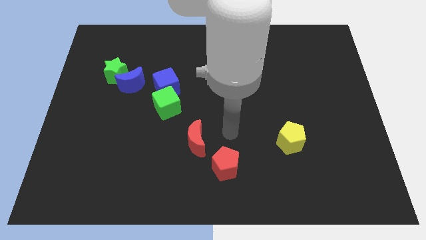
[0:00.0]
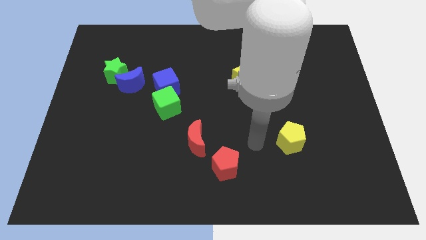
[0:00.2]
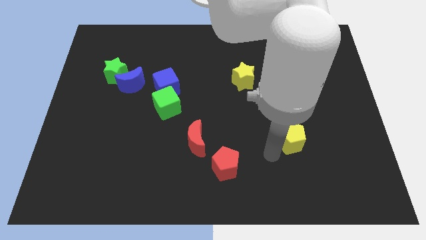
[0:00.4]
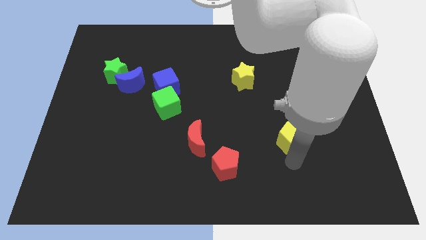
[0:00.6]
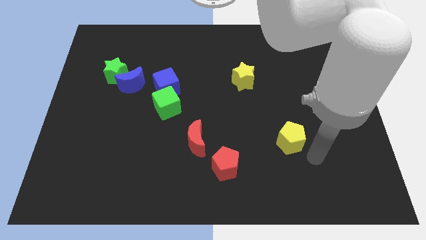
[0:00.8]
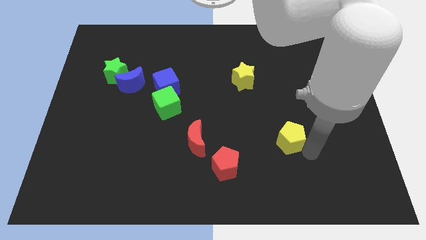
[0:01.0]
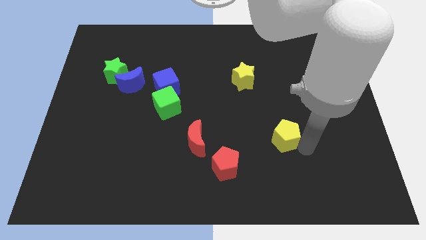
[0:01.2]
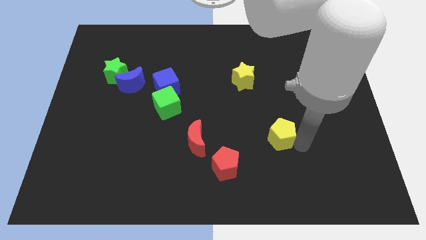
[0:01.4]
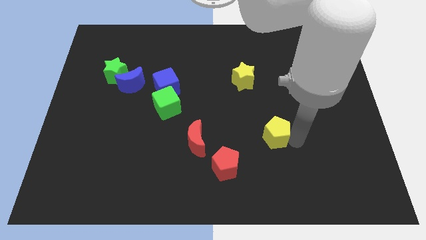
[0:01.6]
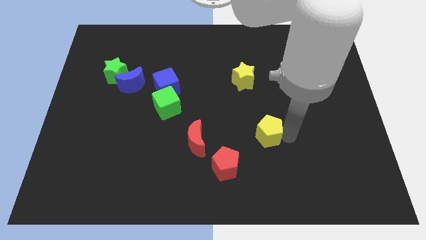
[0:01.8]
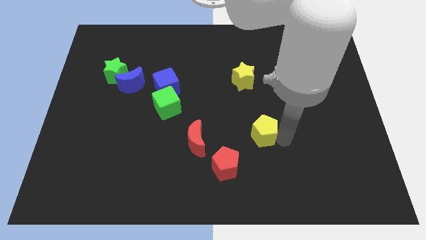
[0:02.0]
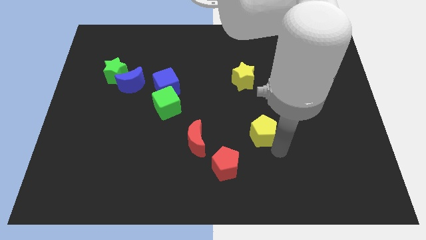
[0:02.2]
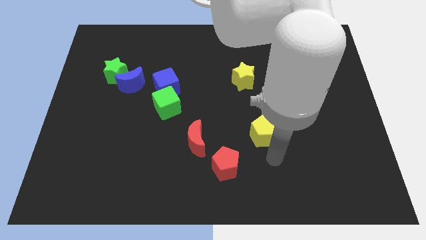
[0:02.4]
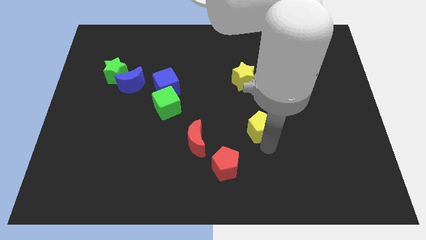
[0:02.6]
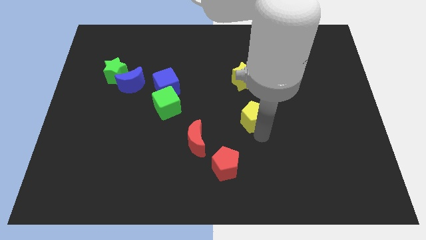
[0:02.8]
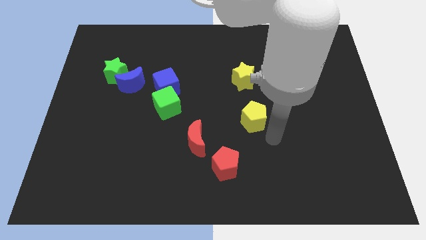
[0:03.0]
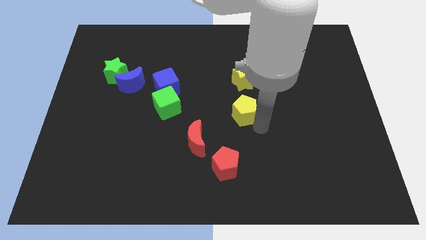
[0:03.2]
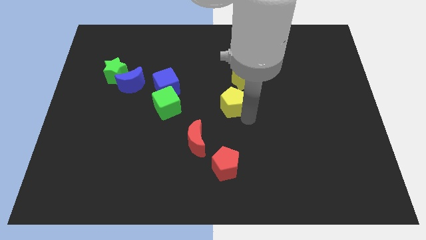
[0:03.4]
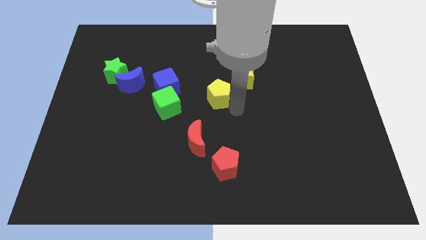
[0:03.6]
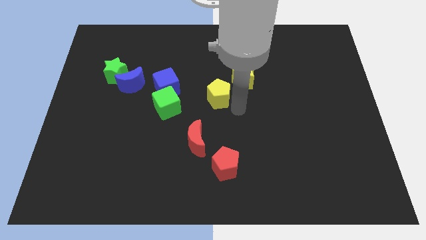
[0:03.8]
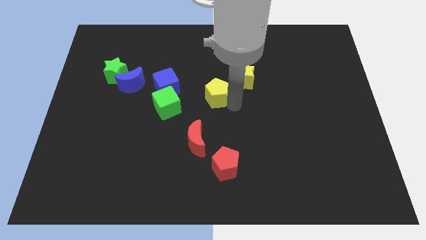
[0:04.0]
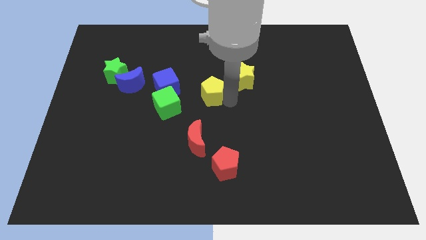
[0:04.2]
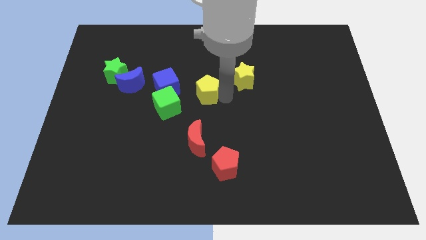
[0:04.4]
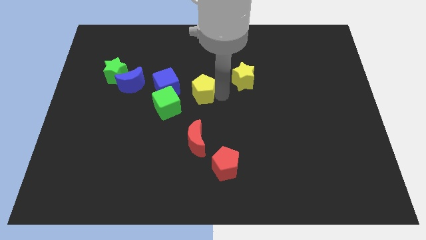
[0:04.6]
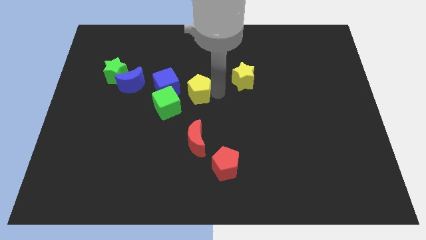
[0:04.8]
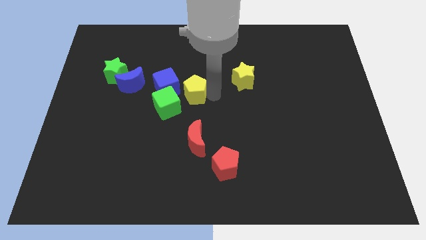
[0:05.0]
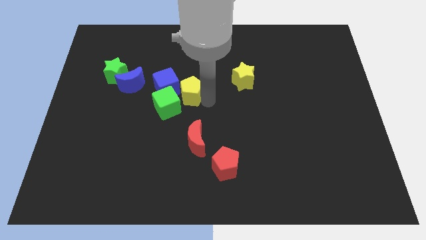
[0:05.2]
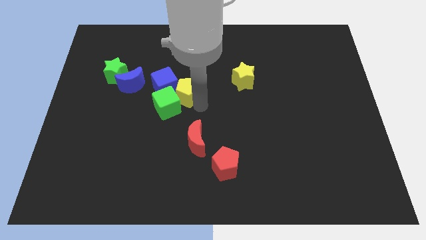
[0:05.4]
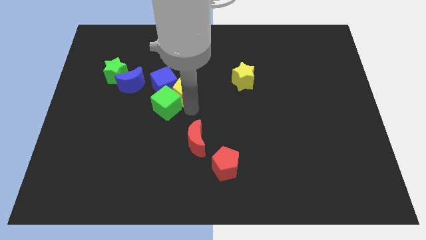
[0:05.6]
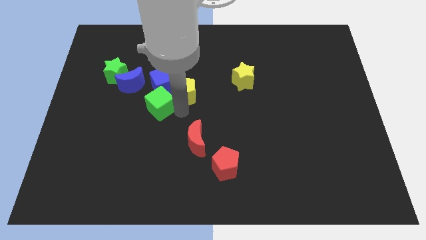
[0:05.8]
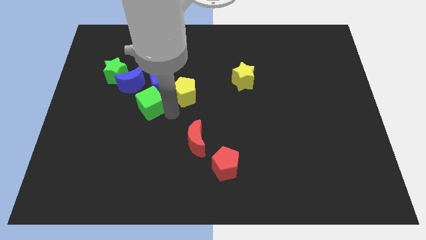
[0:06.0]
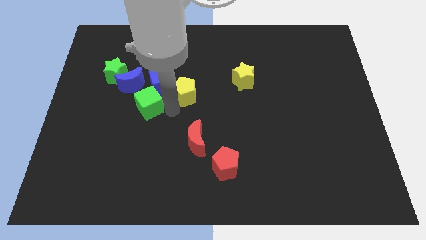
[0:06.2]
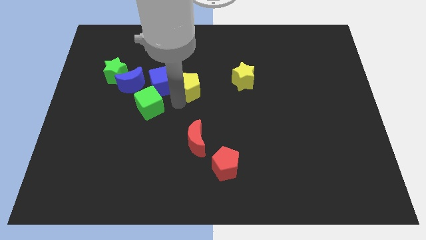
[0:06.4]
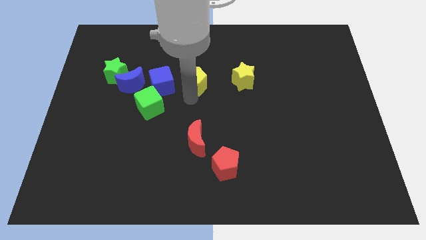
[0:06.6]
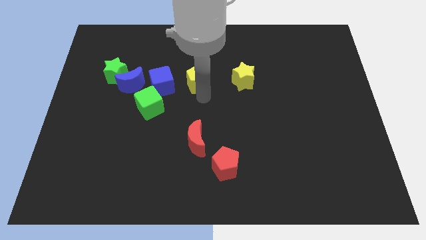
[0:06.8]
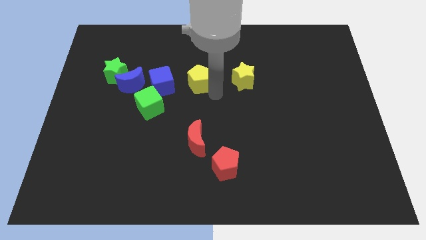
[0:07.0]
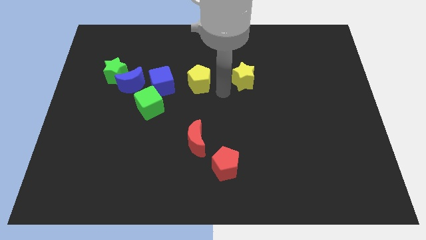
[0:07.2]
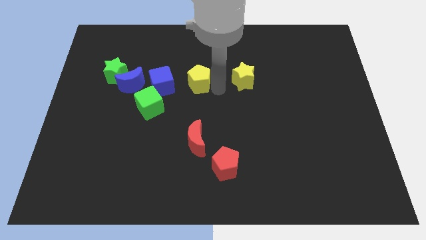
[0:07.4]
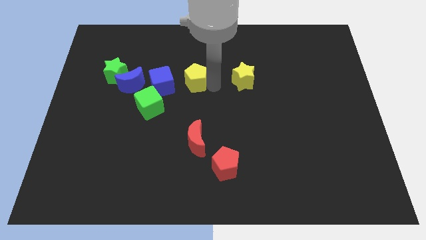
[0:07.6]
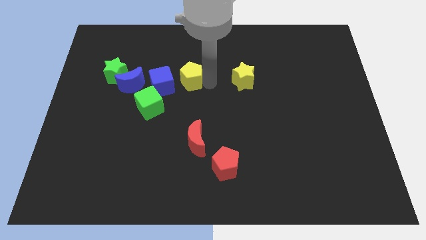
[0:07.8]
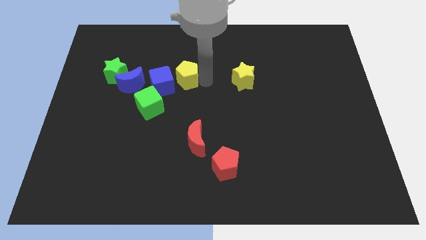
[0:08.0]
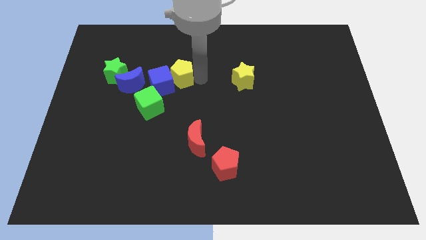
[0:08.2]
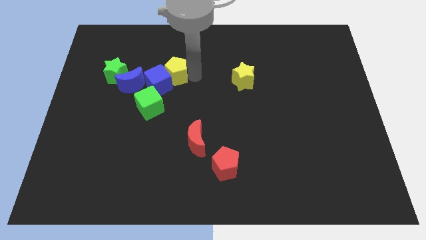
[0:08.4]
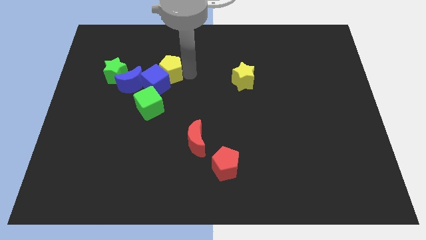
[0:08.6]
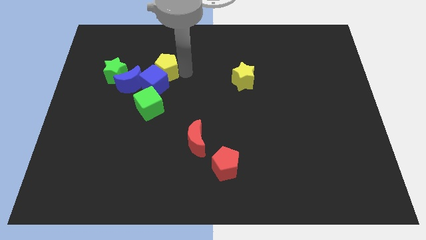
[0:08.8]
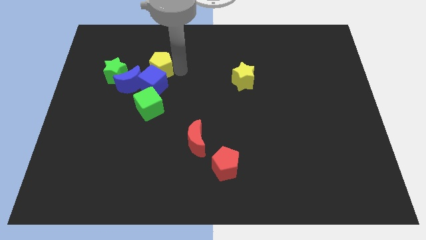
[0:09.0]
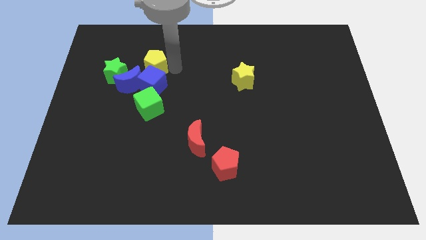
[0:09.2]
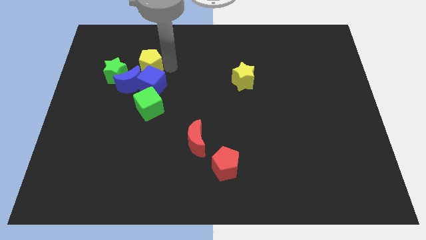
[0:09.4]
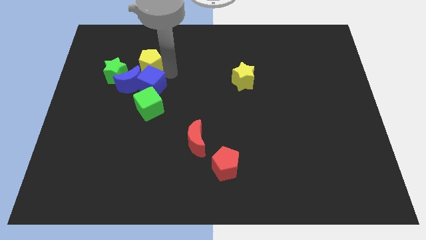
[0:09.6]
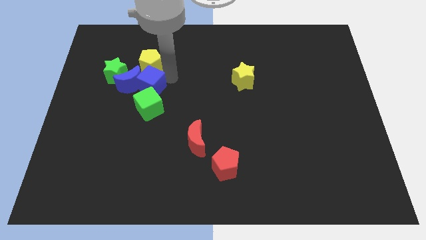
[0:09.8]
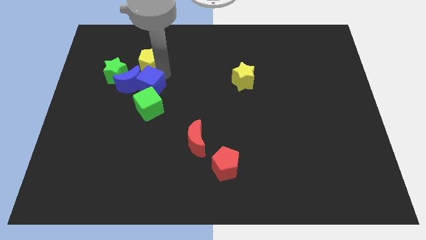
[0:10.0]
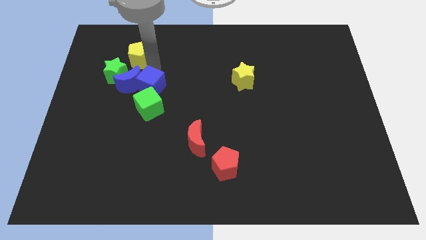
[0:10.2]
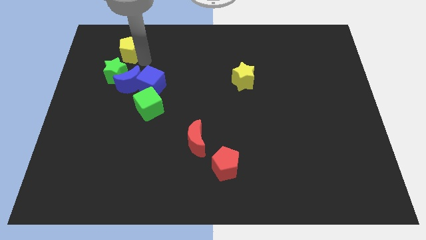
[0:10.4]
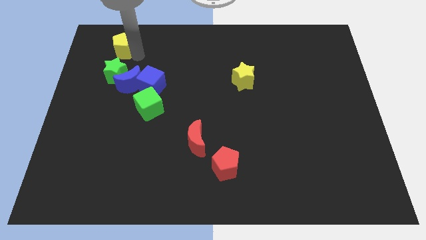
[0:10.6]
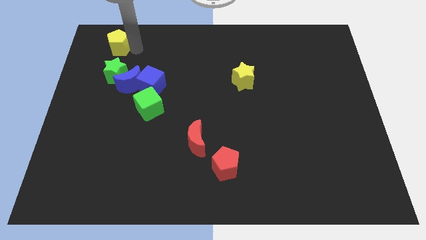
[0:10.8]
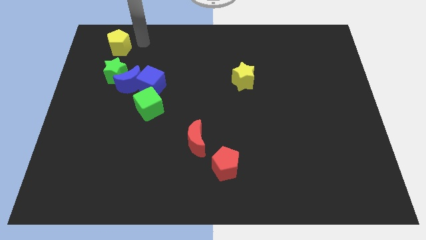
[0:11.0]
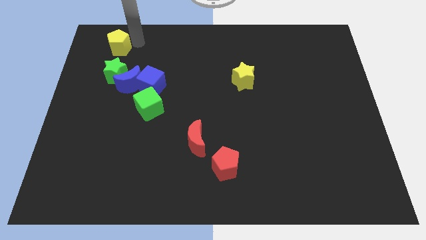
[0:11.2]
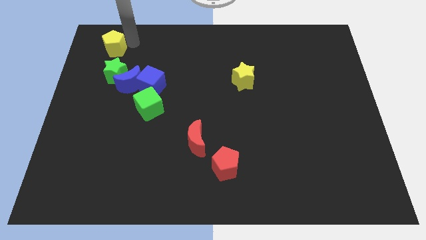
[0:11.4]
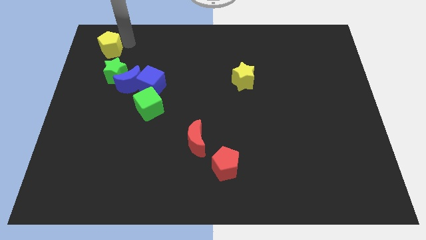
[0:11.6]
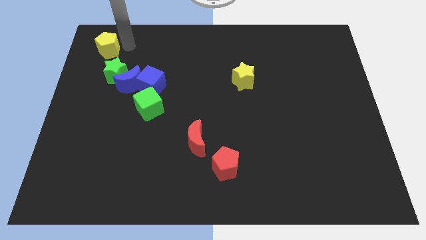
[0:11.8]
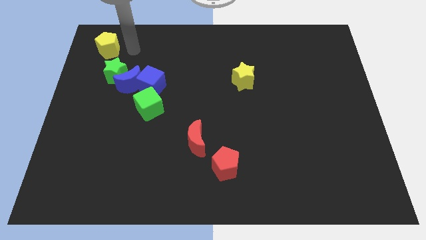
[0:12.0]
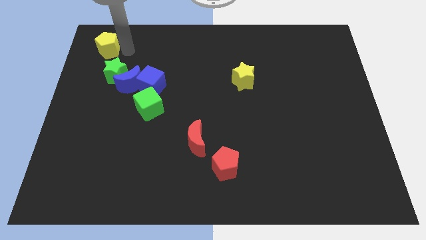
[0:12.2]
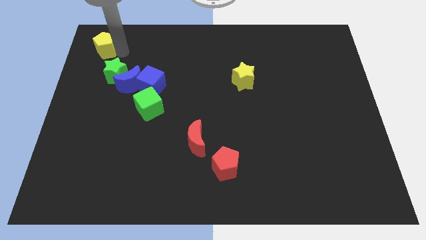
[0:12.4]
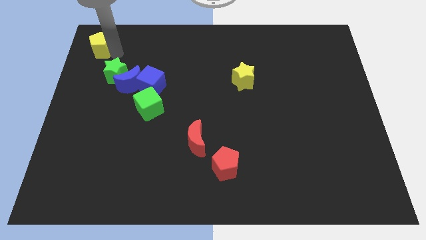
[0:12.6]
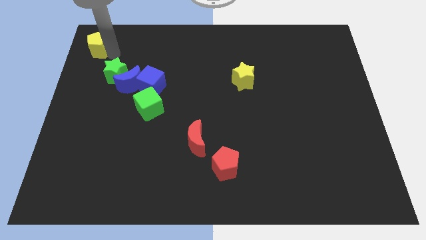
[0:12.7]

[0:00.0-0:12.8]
put the yellow pentagon to the top left of the board

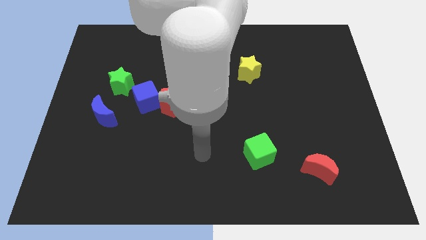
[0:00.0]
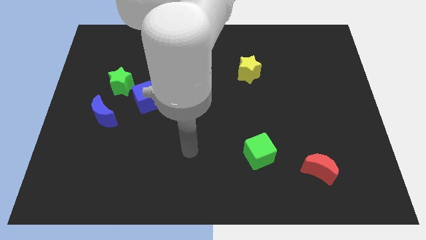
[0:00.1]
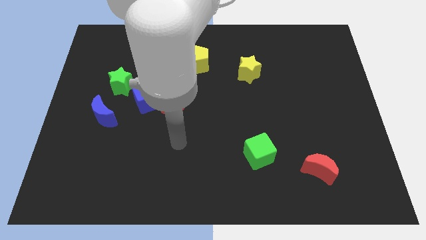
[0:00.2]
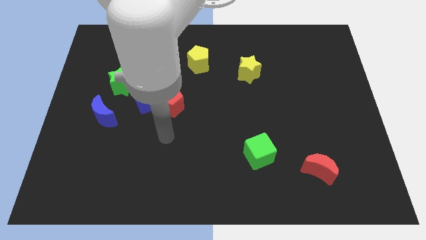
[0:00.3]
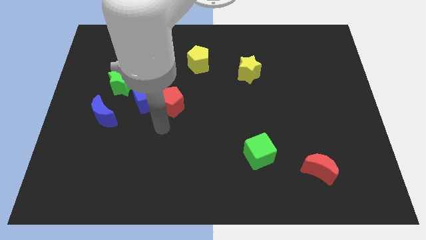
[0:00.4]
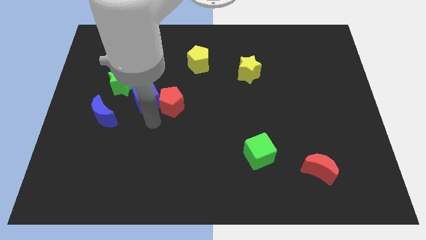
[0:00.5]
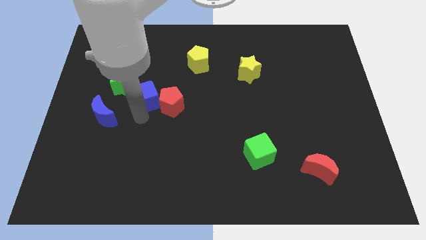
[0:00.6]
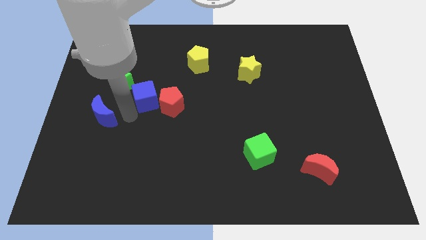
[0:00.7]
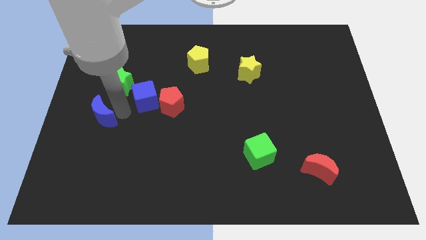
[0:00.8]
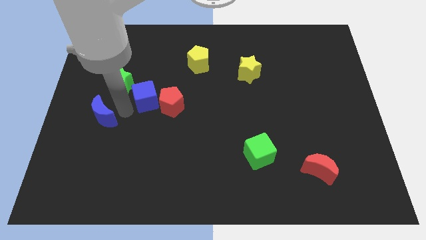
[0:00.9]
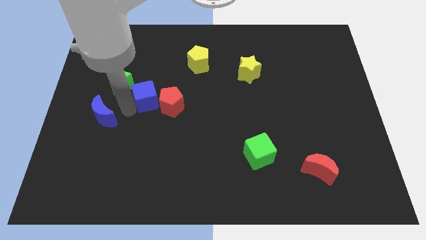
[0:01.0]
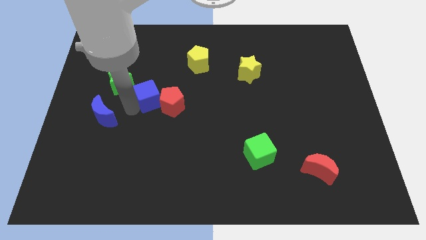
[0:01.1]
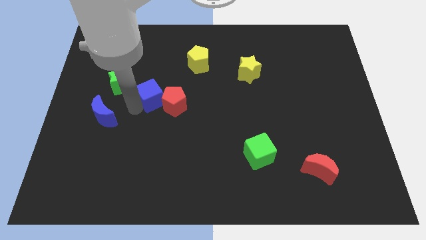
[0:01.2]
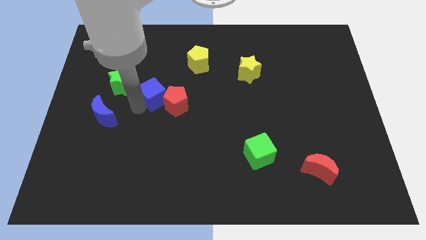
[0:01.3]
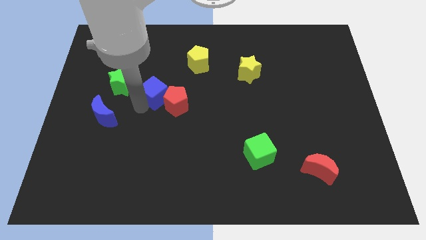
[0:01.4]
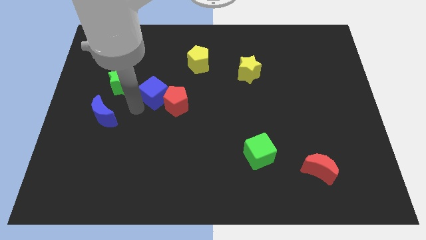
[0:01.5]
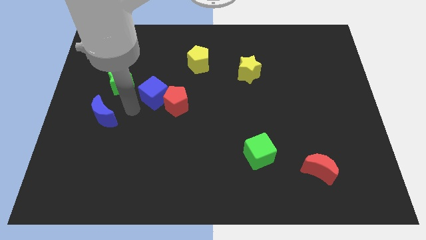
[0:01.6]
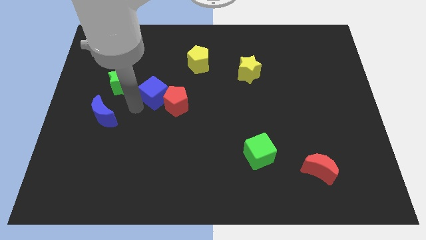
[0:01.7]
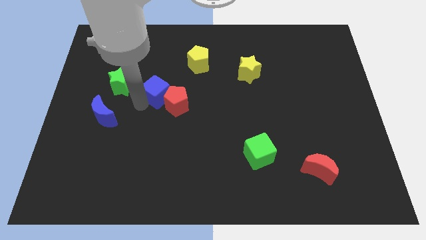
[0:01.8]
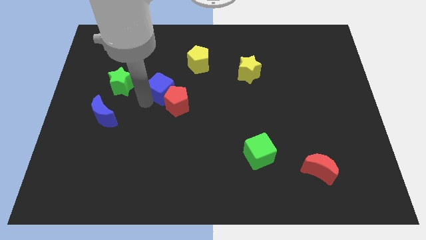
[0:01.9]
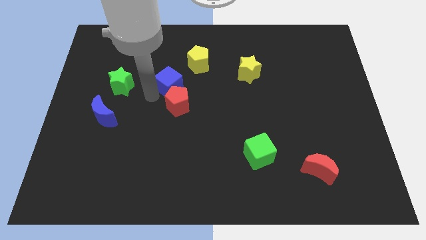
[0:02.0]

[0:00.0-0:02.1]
slide the blue cube to the center
